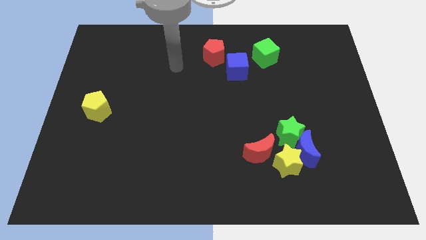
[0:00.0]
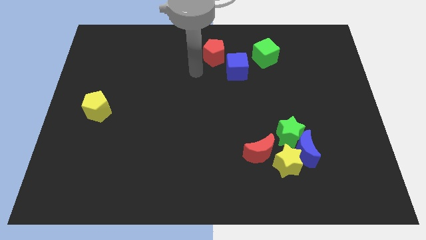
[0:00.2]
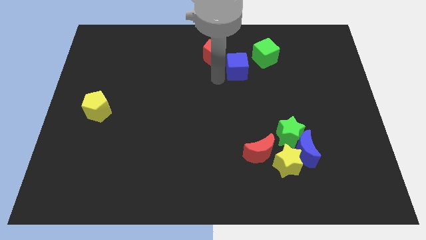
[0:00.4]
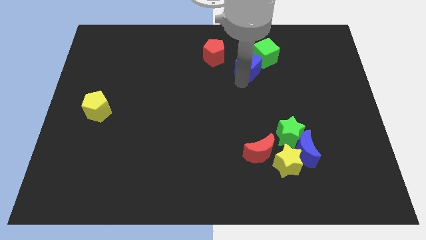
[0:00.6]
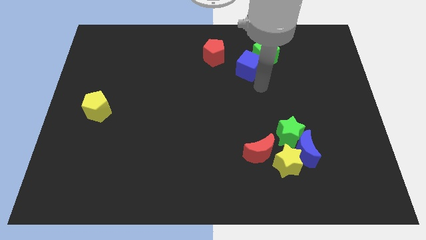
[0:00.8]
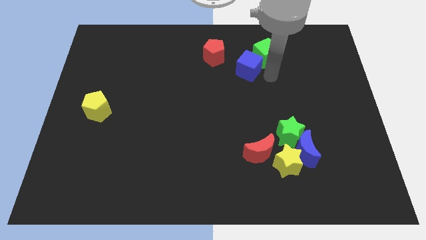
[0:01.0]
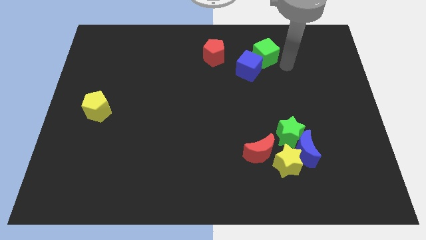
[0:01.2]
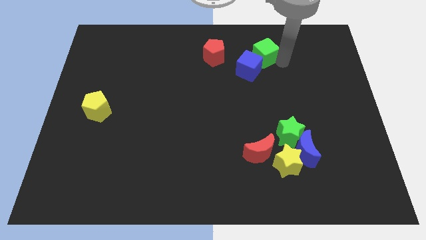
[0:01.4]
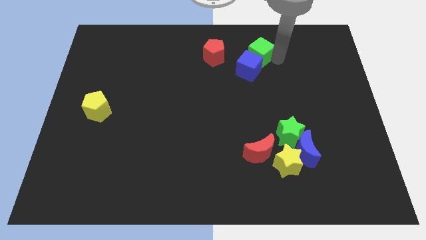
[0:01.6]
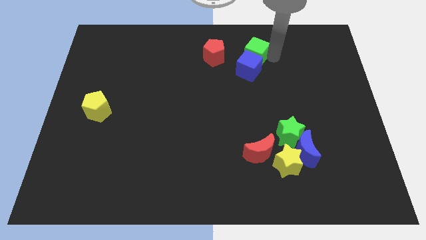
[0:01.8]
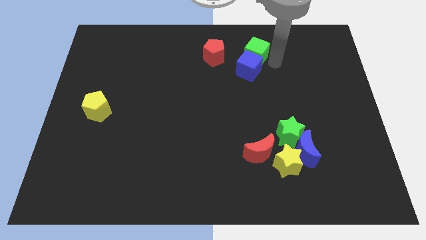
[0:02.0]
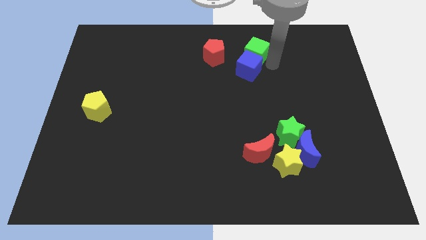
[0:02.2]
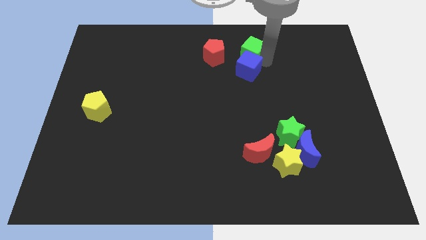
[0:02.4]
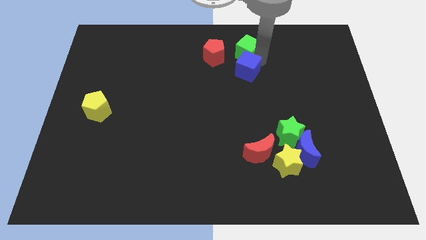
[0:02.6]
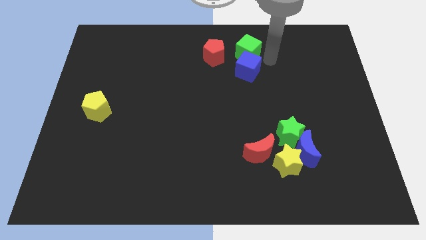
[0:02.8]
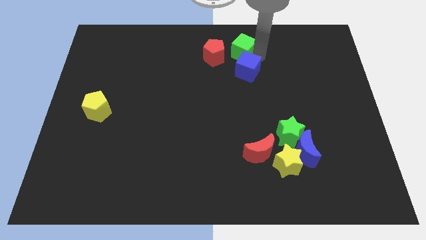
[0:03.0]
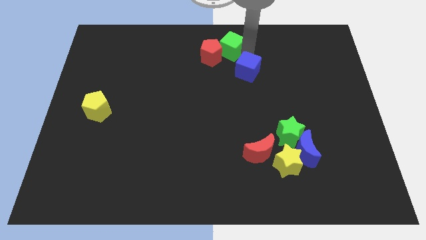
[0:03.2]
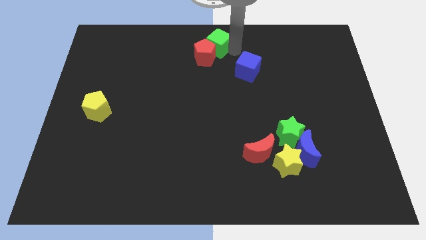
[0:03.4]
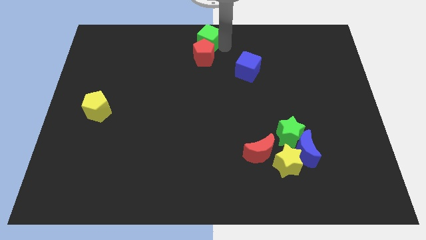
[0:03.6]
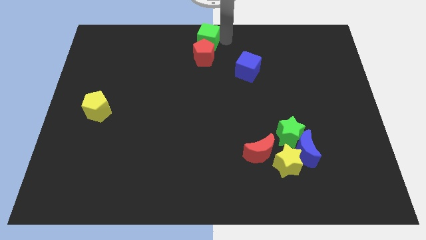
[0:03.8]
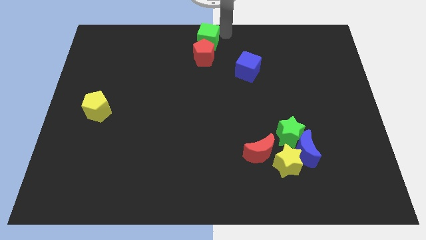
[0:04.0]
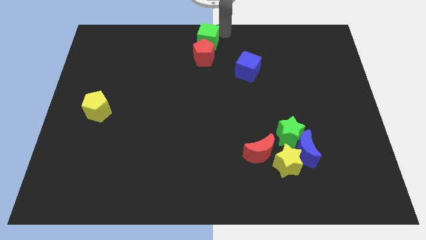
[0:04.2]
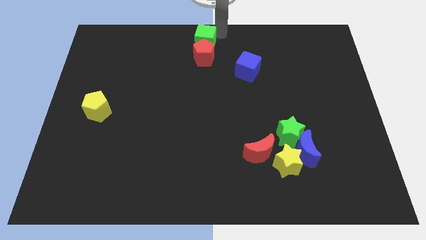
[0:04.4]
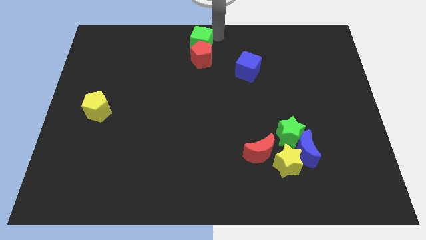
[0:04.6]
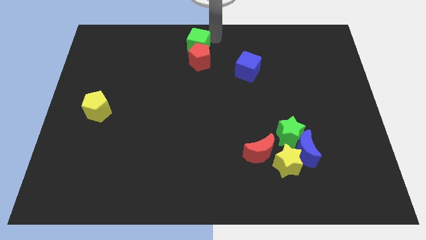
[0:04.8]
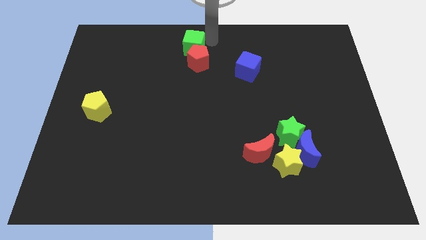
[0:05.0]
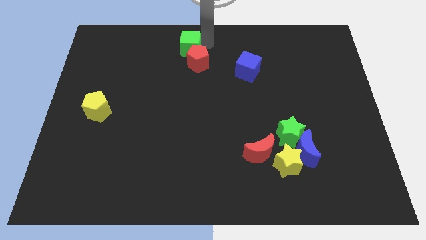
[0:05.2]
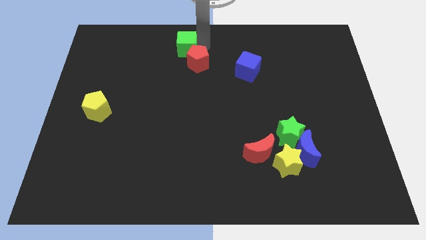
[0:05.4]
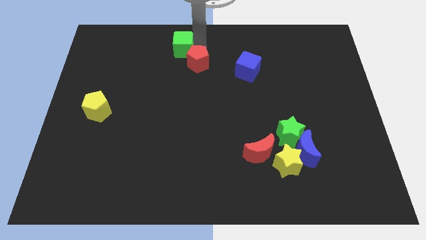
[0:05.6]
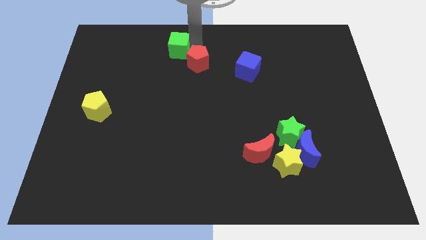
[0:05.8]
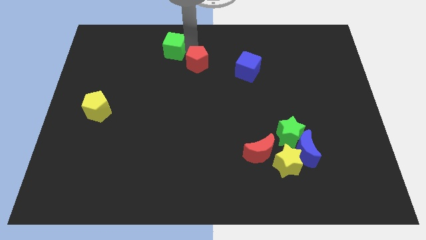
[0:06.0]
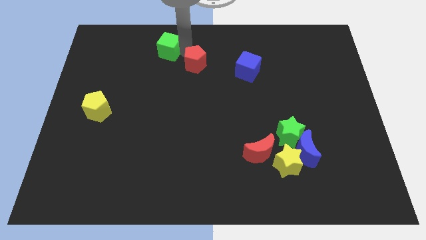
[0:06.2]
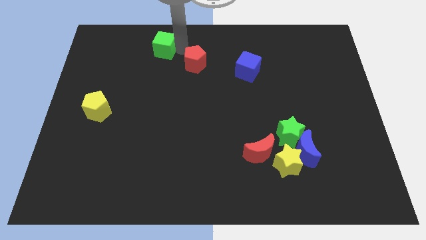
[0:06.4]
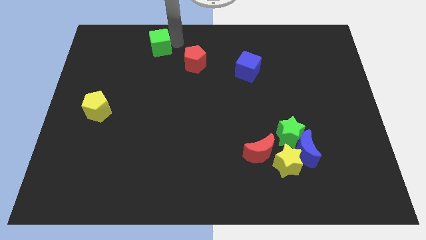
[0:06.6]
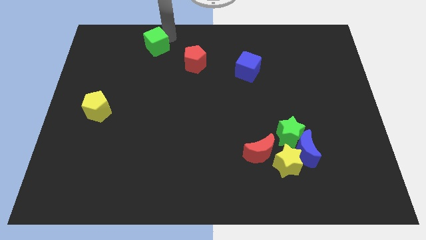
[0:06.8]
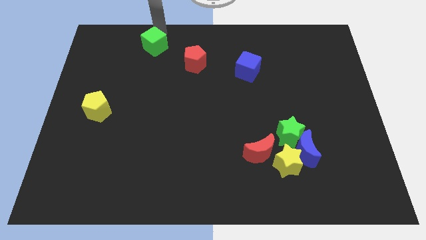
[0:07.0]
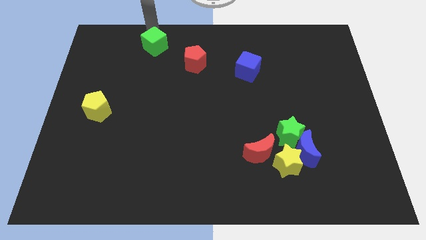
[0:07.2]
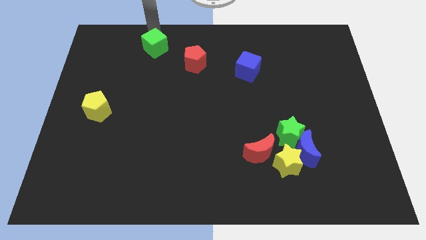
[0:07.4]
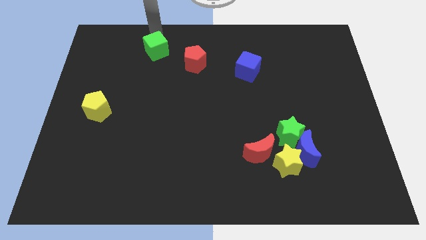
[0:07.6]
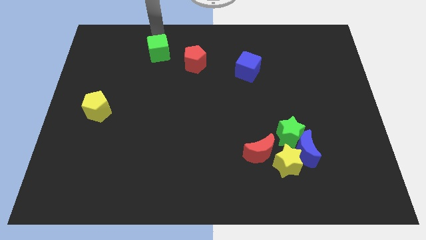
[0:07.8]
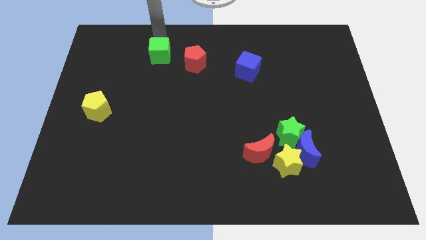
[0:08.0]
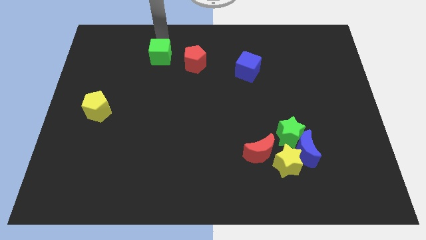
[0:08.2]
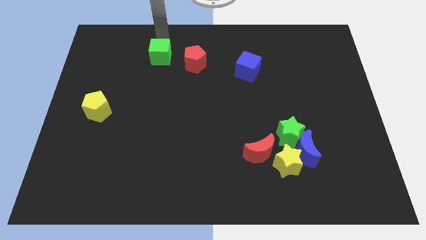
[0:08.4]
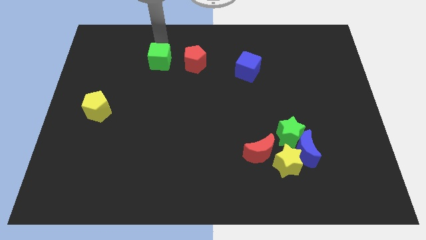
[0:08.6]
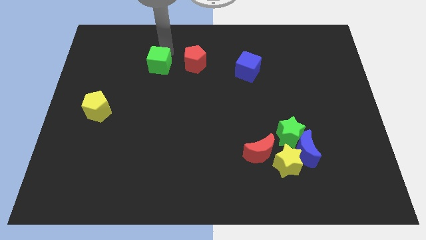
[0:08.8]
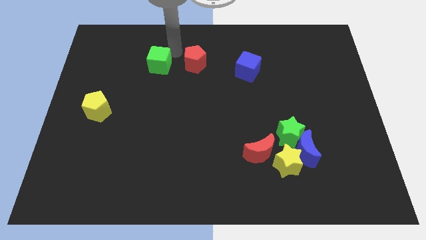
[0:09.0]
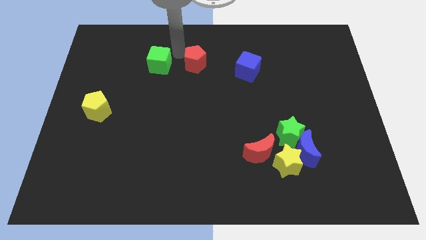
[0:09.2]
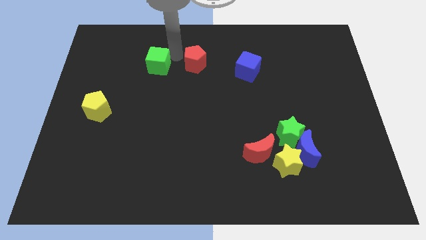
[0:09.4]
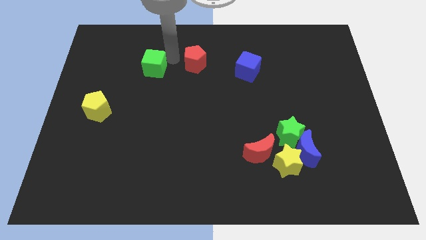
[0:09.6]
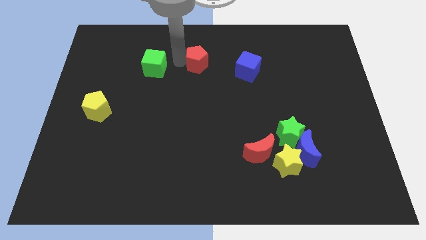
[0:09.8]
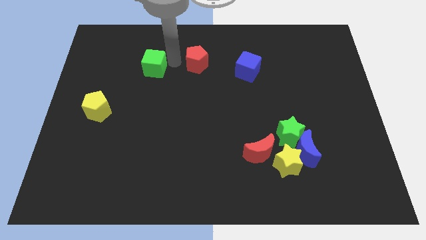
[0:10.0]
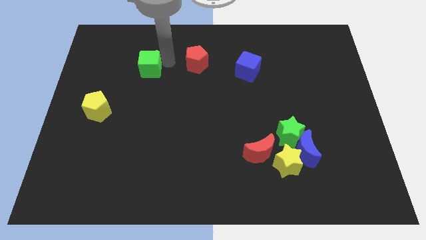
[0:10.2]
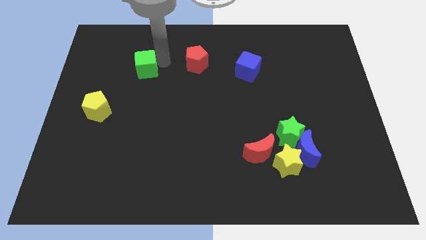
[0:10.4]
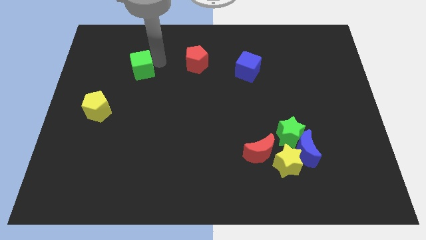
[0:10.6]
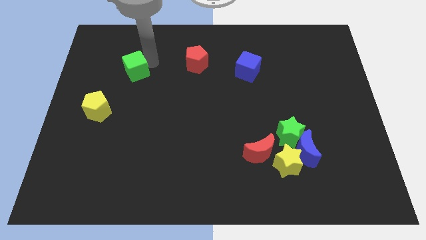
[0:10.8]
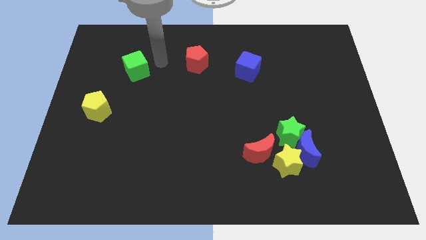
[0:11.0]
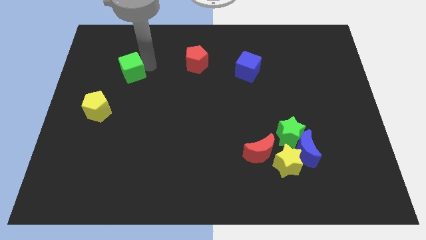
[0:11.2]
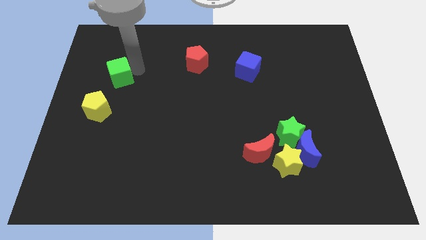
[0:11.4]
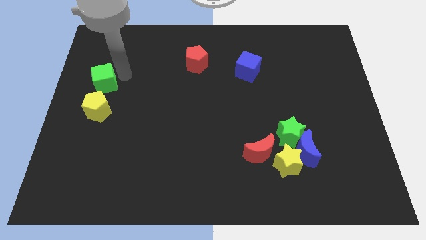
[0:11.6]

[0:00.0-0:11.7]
put the green cube to the left side

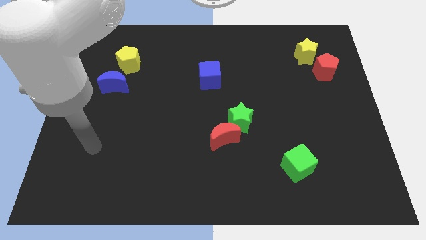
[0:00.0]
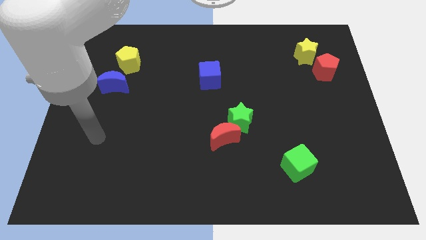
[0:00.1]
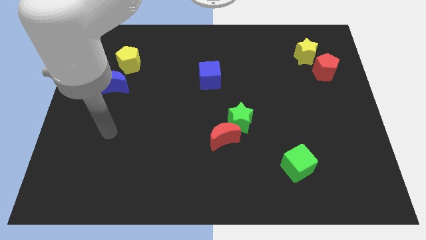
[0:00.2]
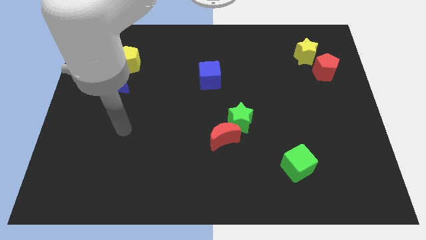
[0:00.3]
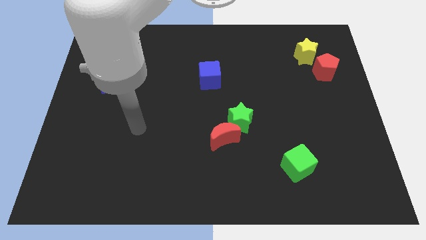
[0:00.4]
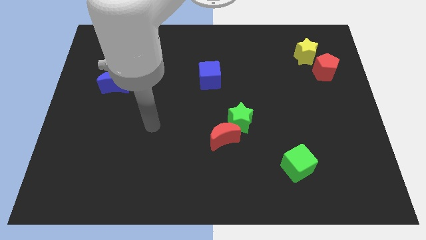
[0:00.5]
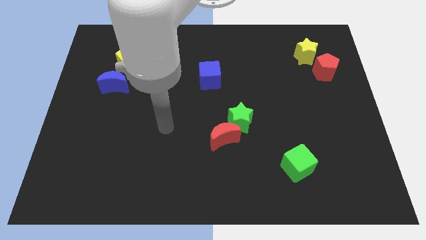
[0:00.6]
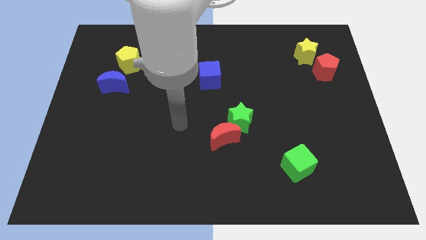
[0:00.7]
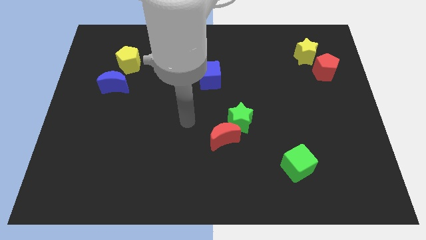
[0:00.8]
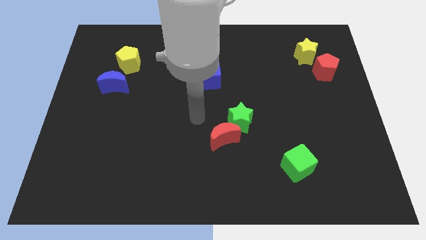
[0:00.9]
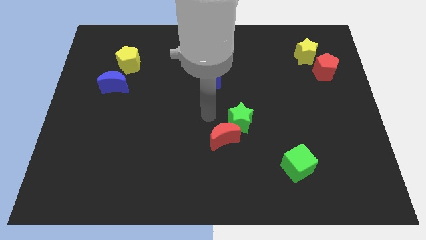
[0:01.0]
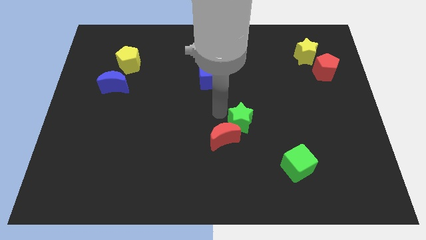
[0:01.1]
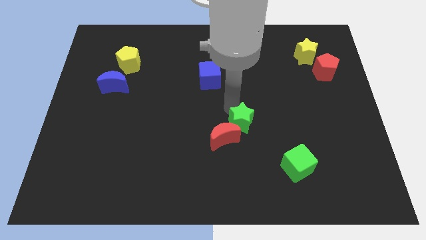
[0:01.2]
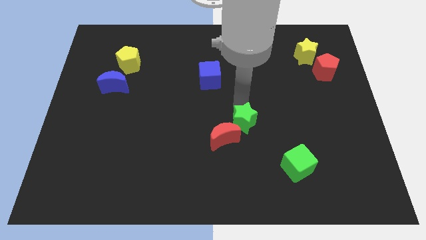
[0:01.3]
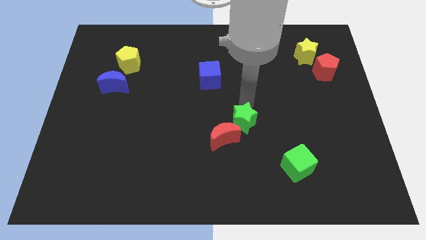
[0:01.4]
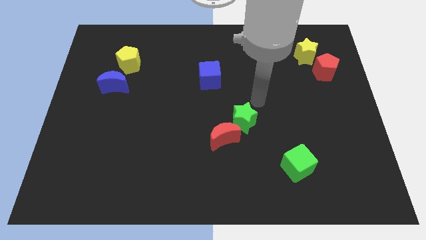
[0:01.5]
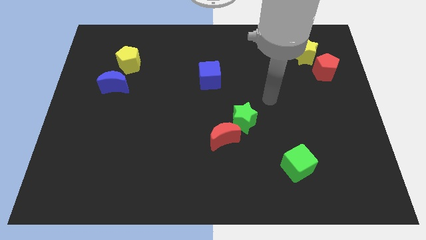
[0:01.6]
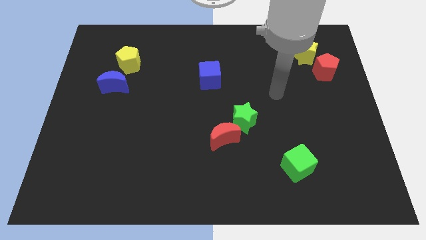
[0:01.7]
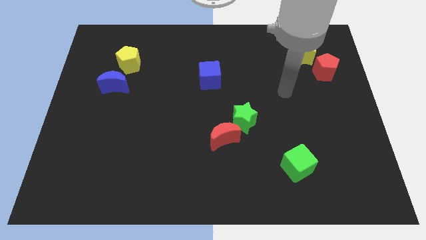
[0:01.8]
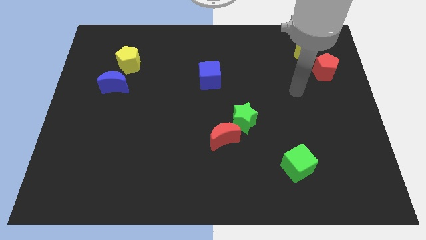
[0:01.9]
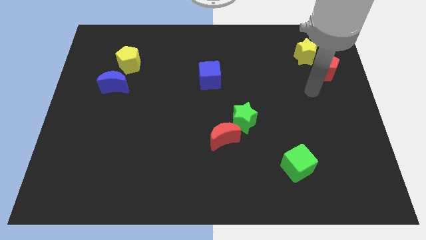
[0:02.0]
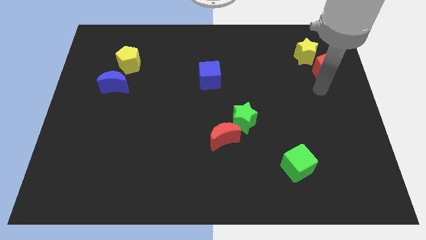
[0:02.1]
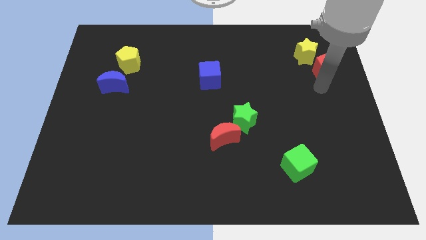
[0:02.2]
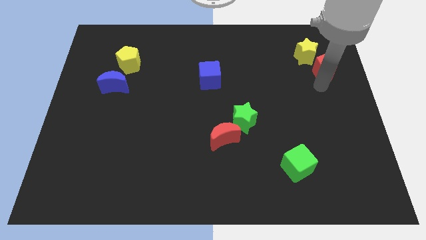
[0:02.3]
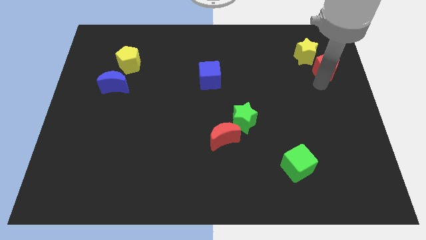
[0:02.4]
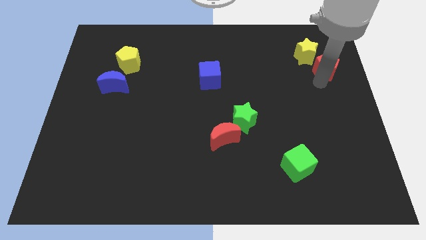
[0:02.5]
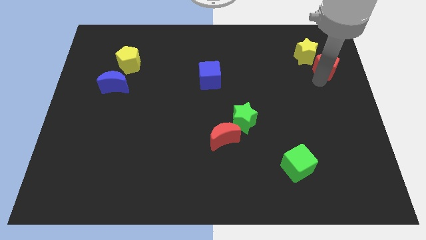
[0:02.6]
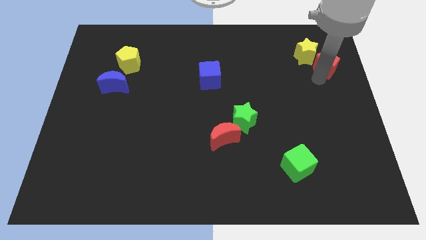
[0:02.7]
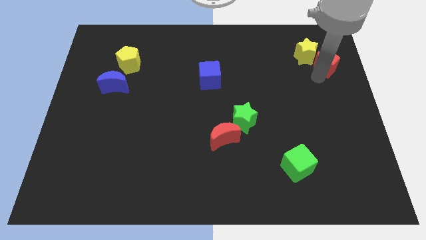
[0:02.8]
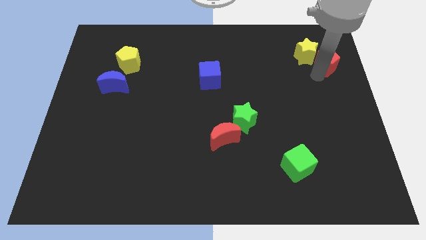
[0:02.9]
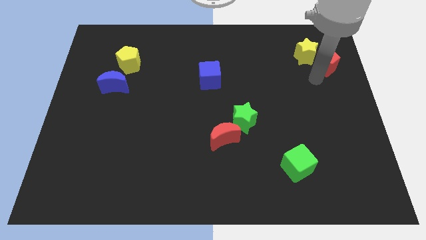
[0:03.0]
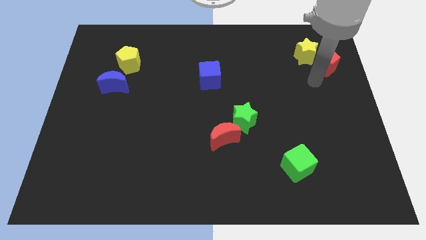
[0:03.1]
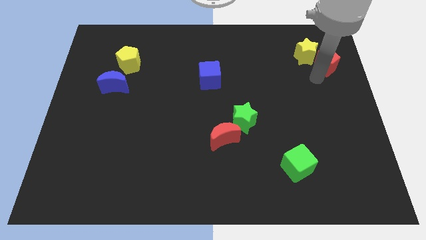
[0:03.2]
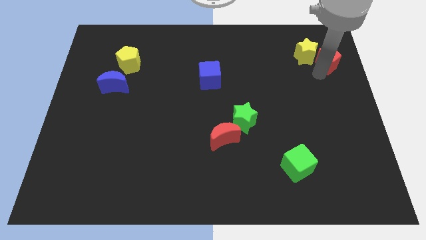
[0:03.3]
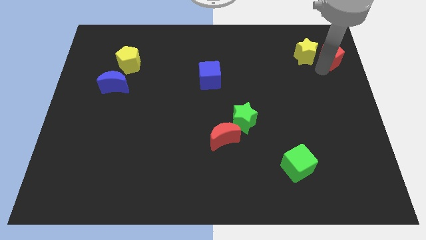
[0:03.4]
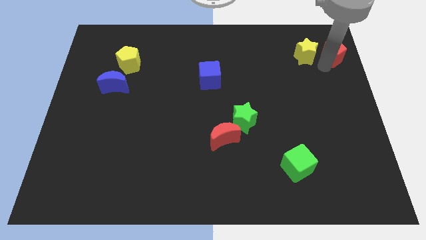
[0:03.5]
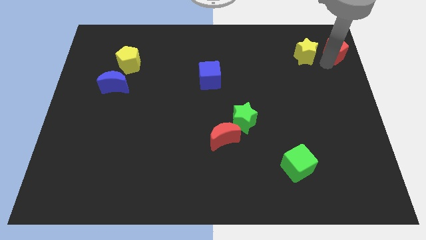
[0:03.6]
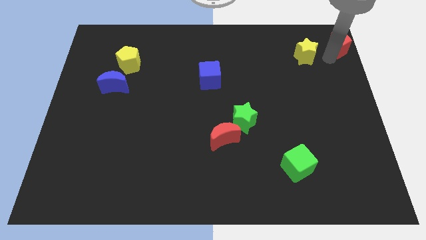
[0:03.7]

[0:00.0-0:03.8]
put the red pentagon to the top right
